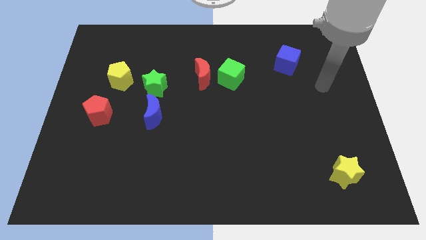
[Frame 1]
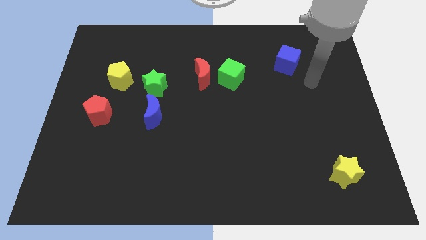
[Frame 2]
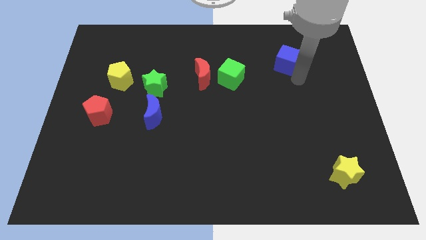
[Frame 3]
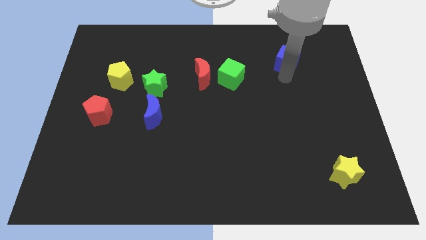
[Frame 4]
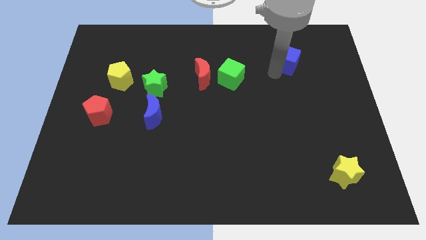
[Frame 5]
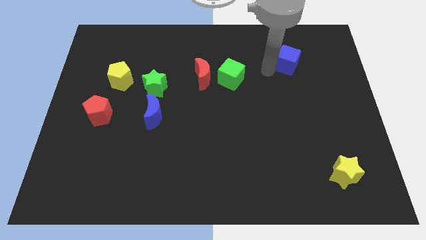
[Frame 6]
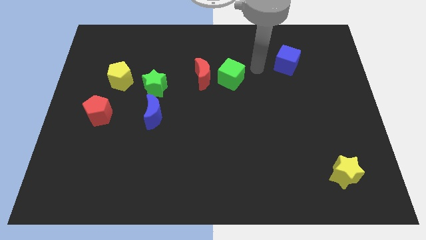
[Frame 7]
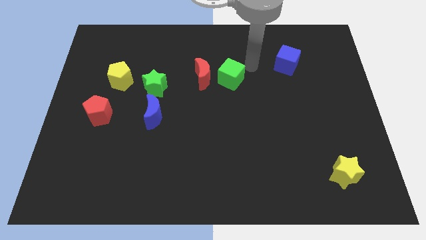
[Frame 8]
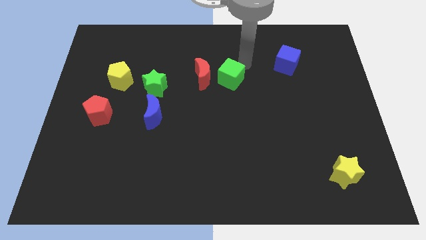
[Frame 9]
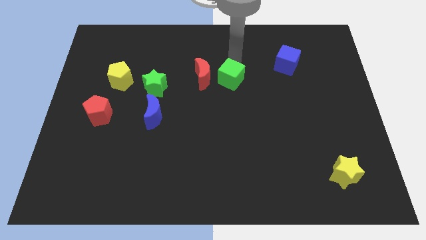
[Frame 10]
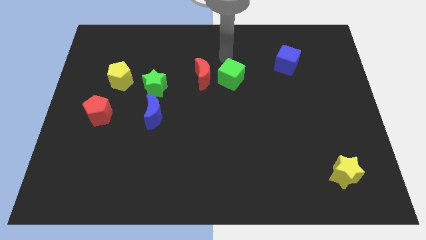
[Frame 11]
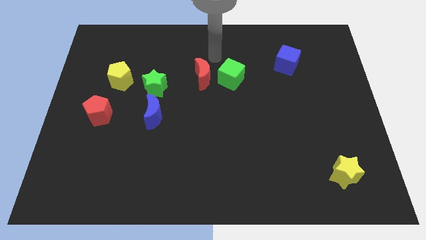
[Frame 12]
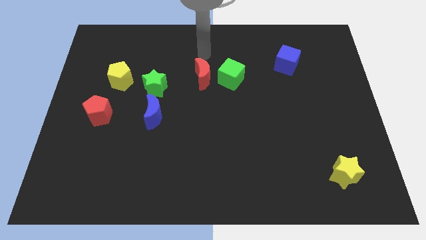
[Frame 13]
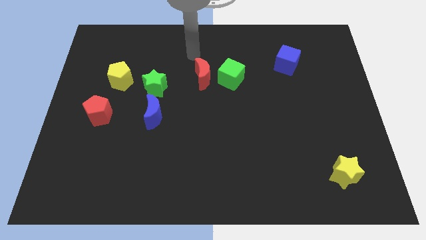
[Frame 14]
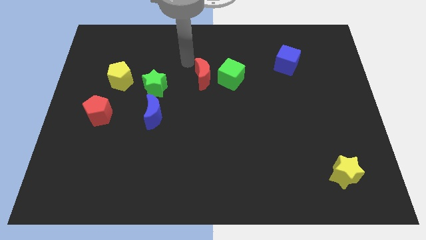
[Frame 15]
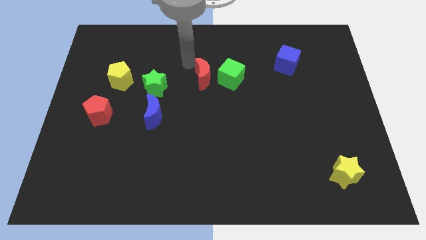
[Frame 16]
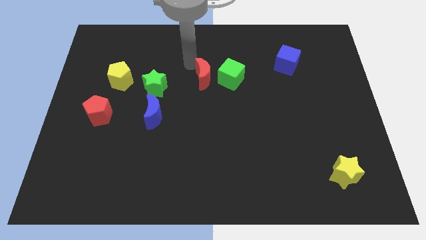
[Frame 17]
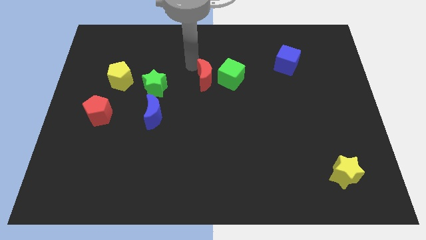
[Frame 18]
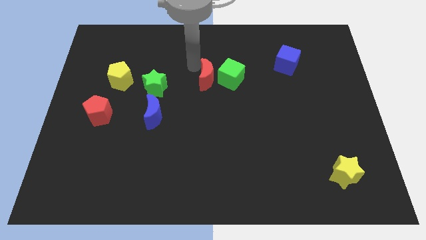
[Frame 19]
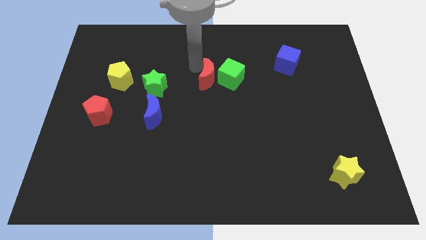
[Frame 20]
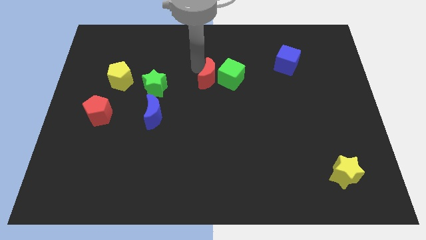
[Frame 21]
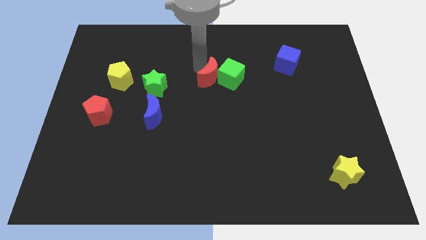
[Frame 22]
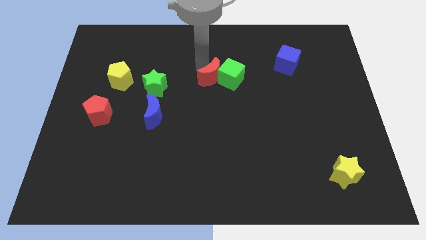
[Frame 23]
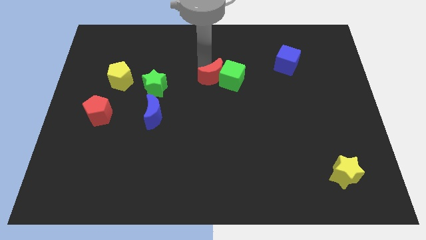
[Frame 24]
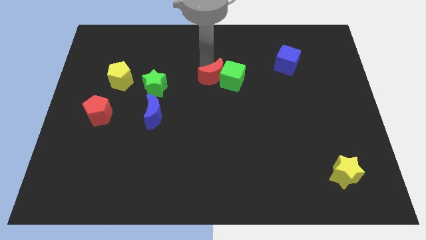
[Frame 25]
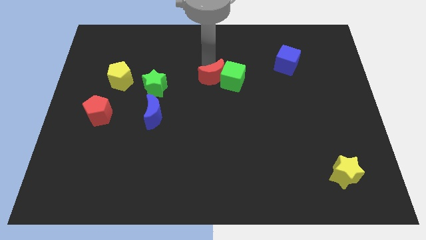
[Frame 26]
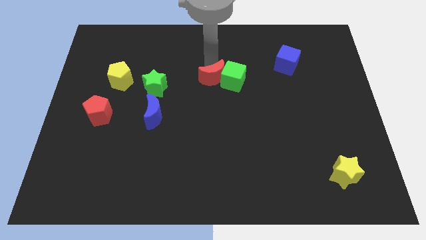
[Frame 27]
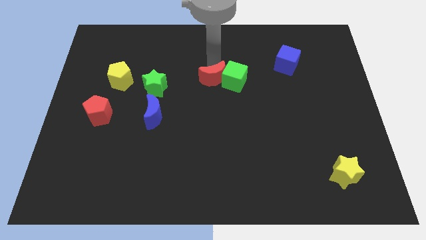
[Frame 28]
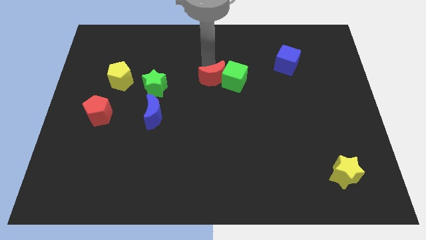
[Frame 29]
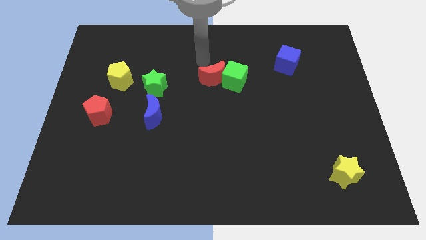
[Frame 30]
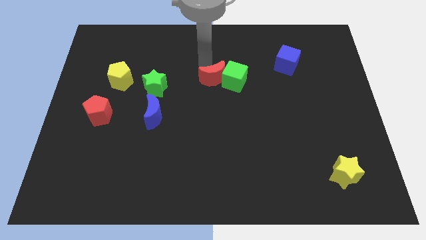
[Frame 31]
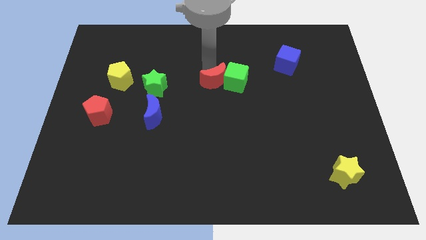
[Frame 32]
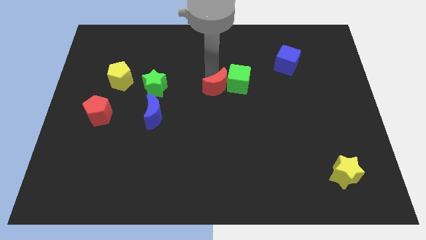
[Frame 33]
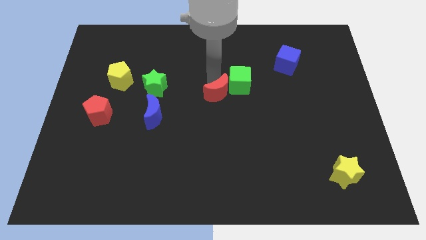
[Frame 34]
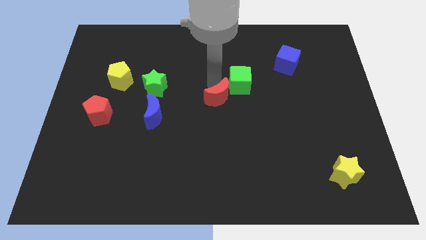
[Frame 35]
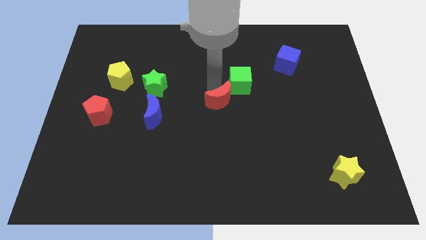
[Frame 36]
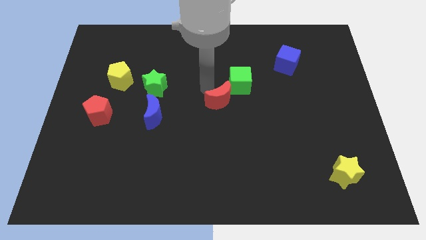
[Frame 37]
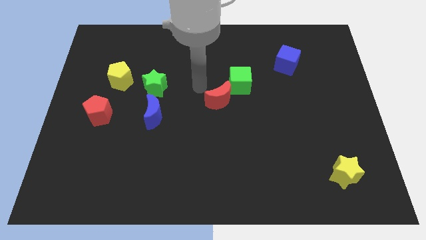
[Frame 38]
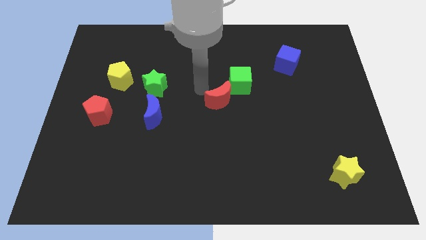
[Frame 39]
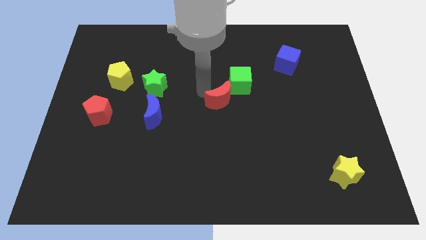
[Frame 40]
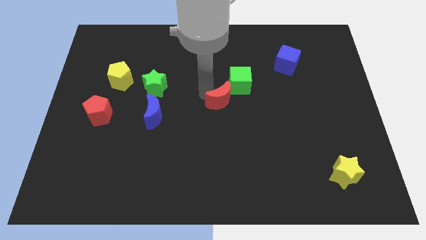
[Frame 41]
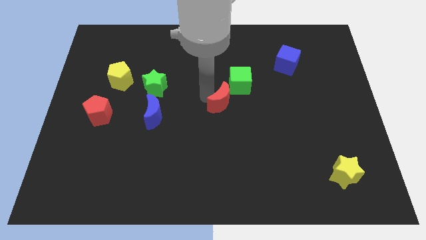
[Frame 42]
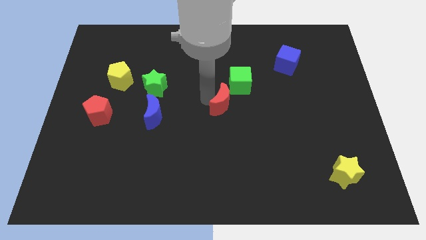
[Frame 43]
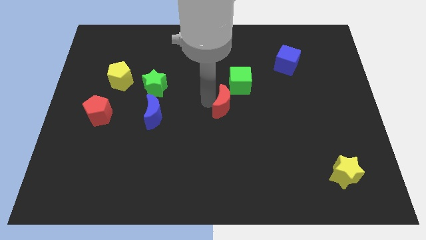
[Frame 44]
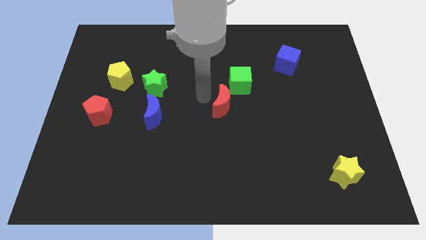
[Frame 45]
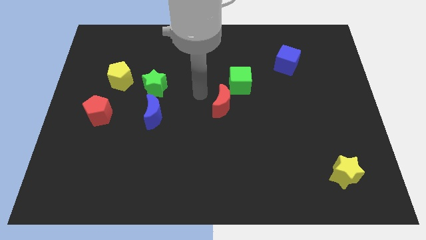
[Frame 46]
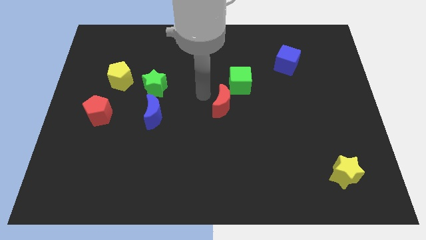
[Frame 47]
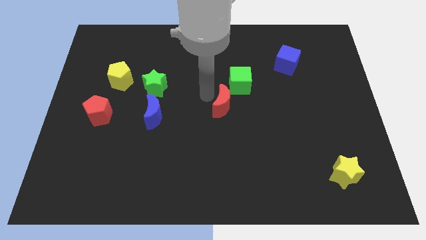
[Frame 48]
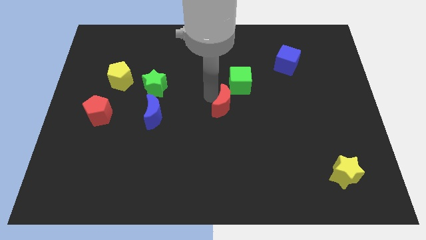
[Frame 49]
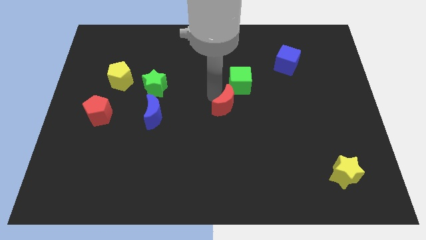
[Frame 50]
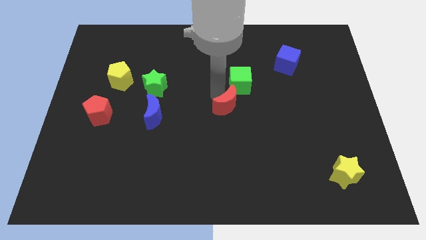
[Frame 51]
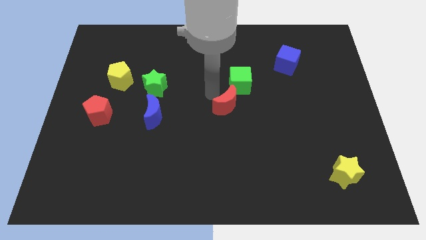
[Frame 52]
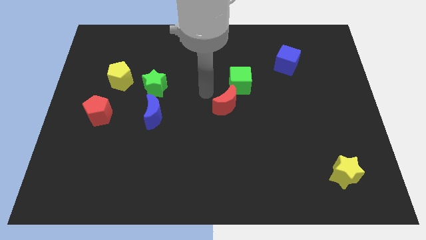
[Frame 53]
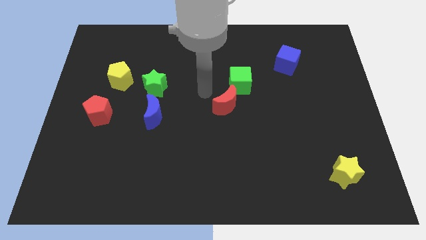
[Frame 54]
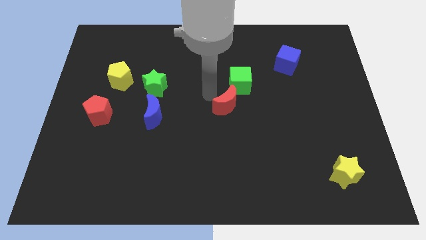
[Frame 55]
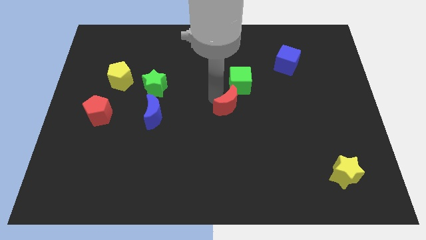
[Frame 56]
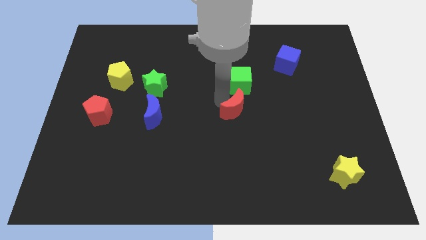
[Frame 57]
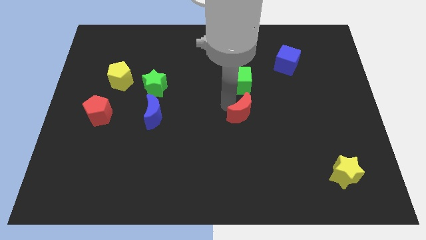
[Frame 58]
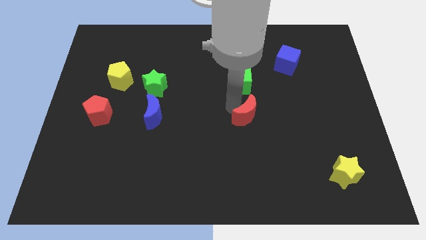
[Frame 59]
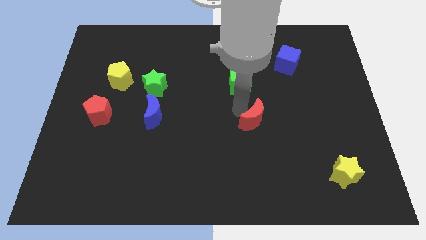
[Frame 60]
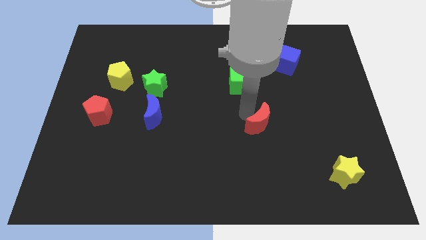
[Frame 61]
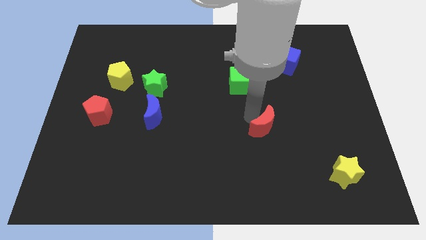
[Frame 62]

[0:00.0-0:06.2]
move the red moon down and to the right diagonally

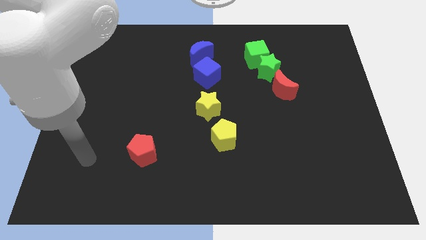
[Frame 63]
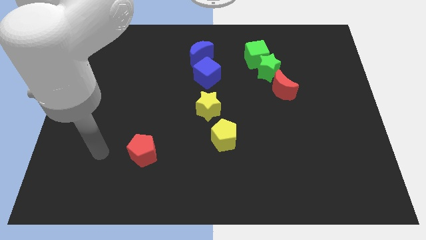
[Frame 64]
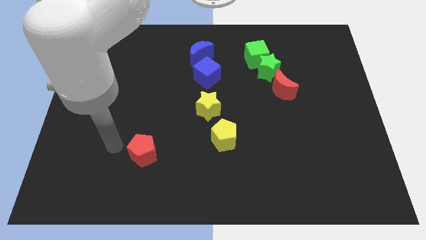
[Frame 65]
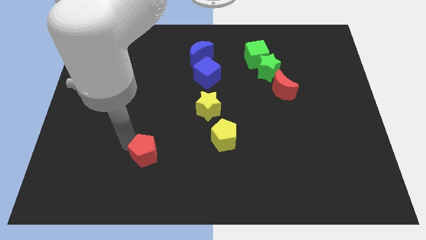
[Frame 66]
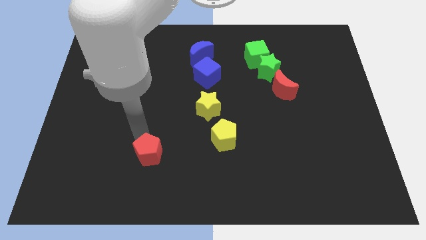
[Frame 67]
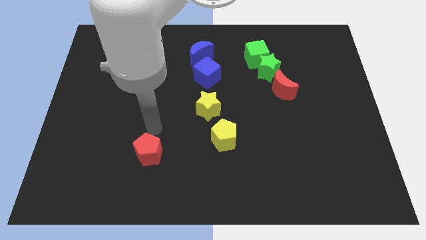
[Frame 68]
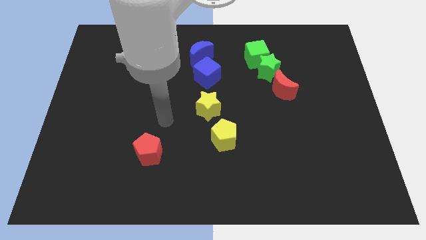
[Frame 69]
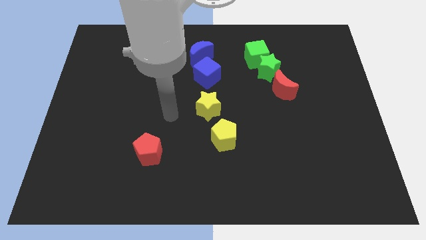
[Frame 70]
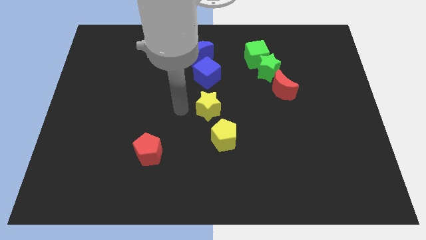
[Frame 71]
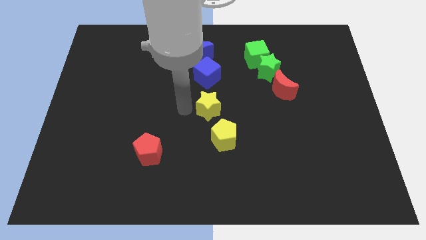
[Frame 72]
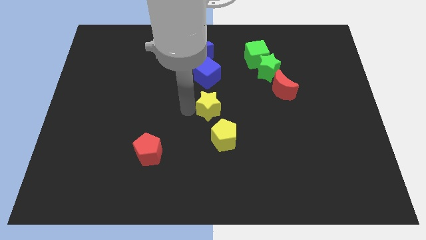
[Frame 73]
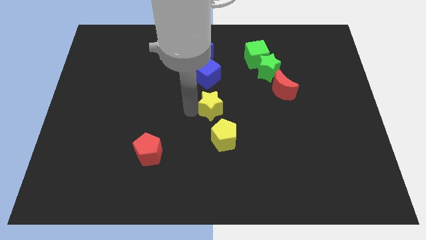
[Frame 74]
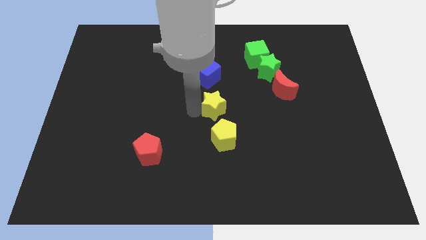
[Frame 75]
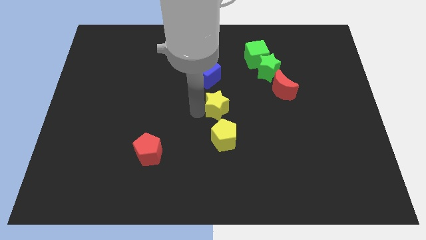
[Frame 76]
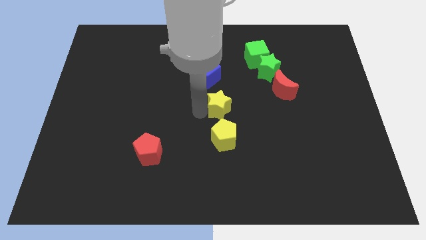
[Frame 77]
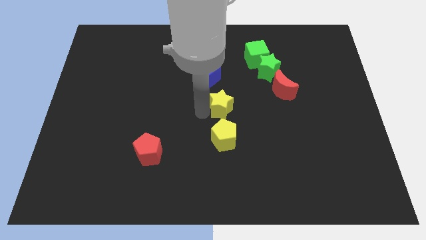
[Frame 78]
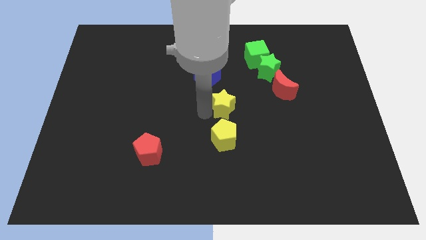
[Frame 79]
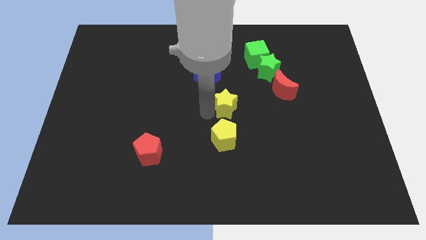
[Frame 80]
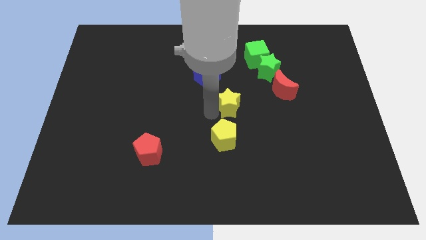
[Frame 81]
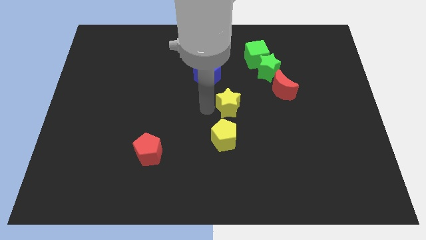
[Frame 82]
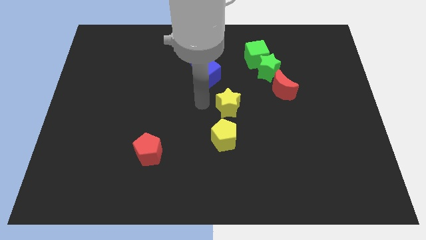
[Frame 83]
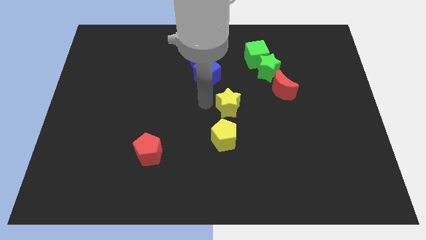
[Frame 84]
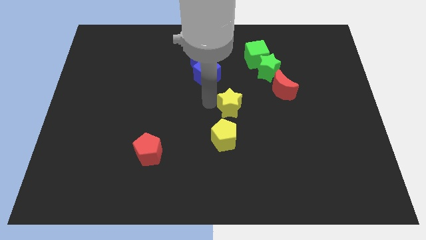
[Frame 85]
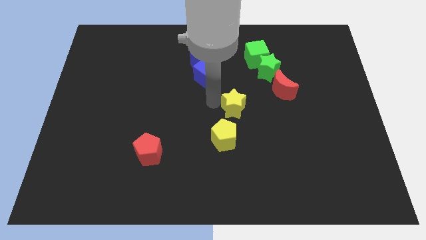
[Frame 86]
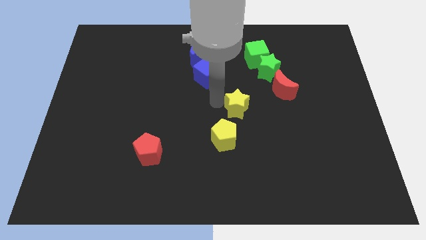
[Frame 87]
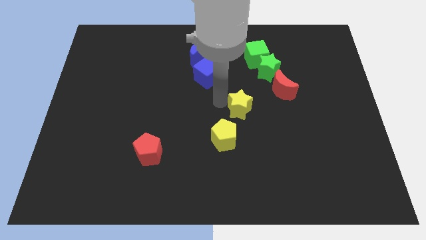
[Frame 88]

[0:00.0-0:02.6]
slightly slide the yellow star right
